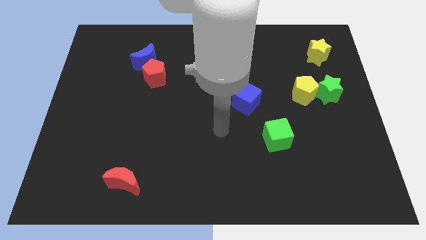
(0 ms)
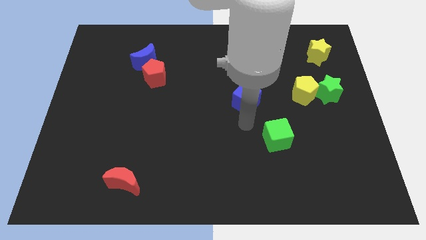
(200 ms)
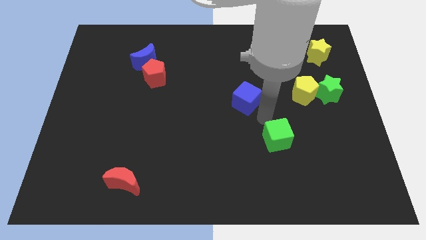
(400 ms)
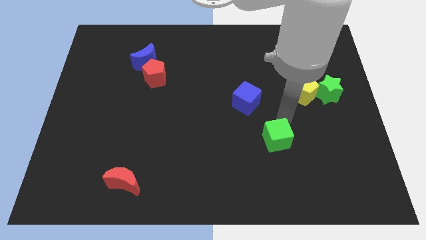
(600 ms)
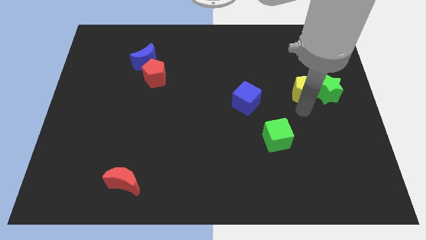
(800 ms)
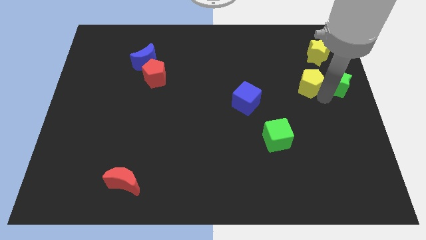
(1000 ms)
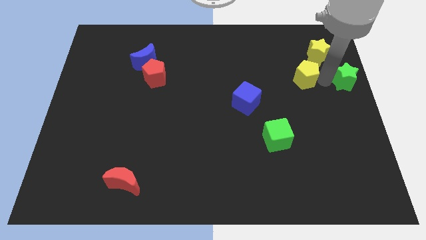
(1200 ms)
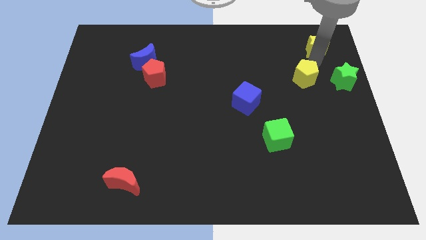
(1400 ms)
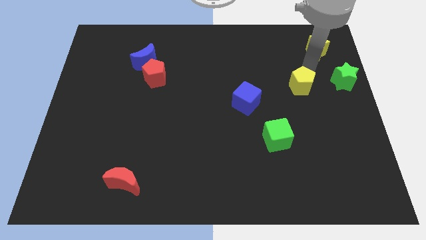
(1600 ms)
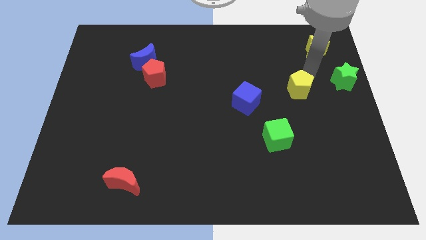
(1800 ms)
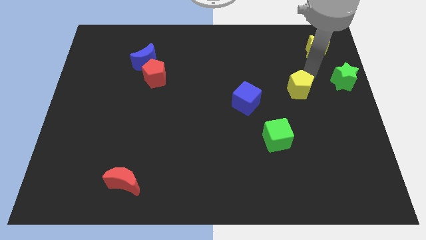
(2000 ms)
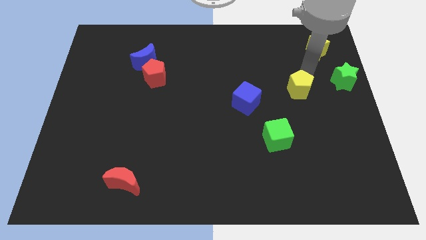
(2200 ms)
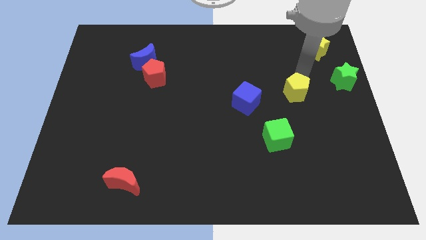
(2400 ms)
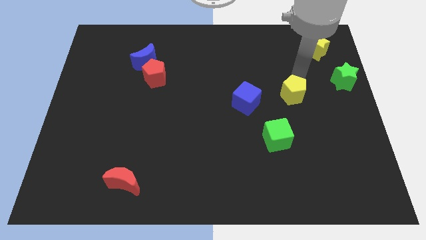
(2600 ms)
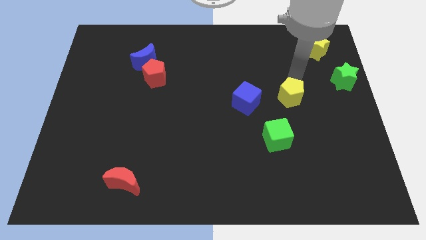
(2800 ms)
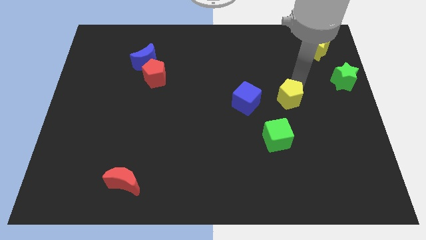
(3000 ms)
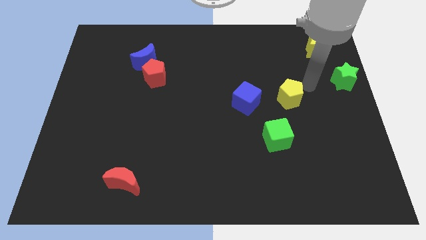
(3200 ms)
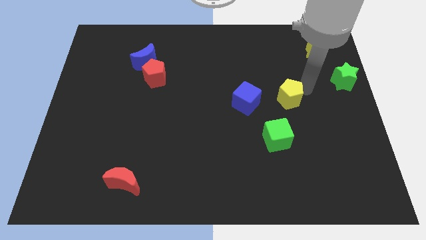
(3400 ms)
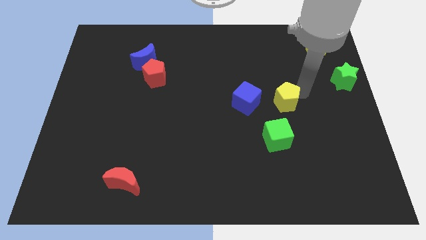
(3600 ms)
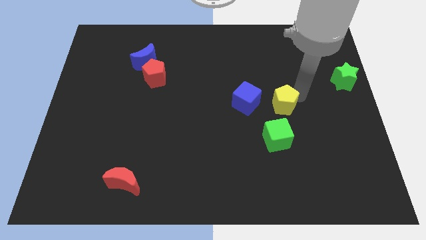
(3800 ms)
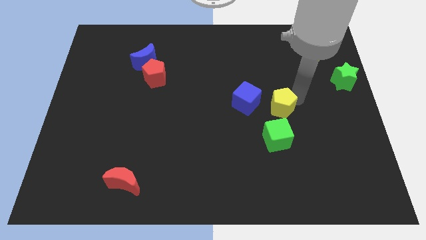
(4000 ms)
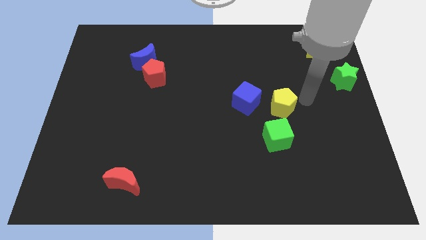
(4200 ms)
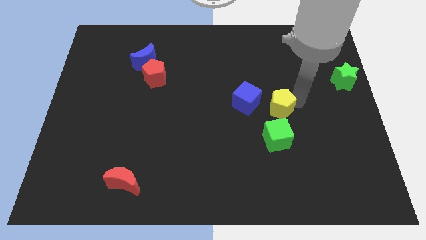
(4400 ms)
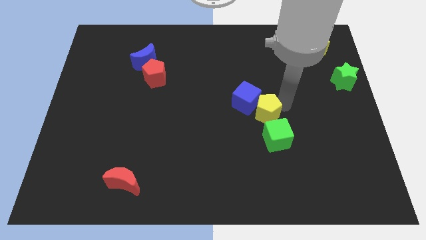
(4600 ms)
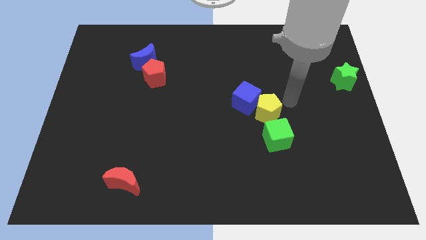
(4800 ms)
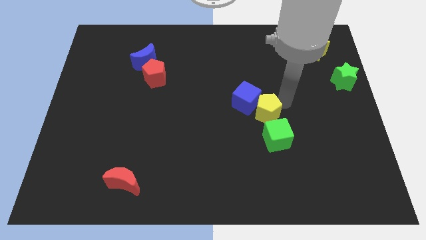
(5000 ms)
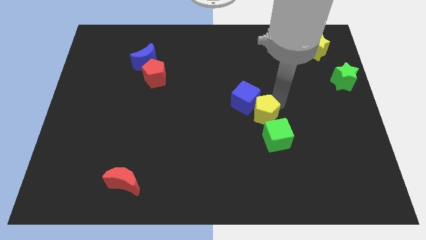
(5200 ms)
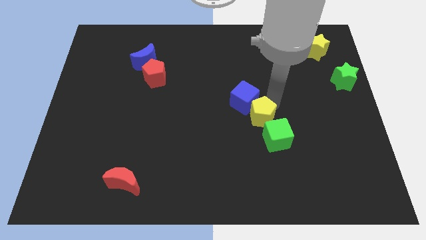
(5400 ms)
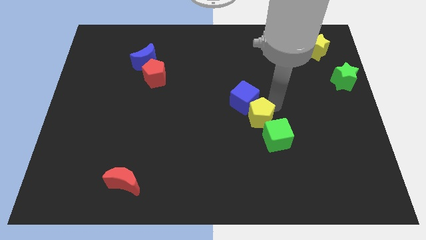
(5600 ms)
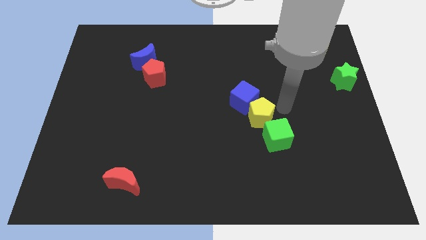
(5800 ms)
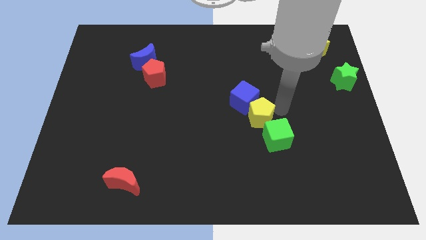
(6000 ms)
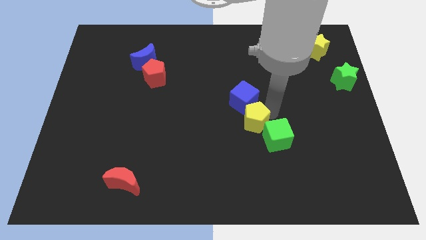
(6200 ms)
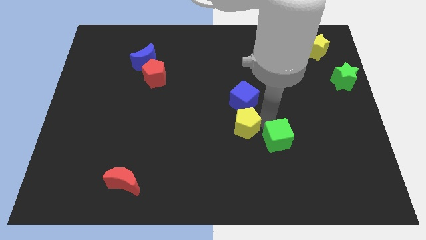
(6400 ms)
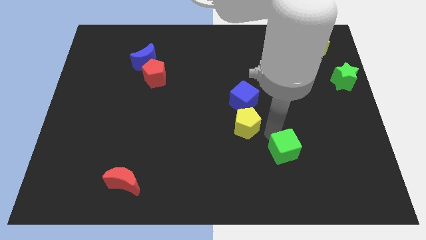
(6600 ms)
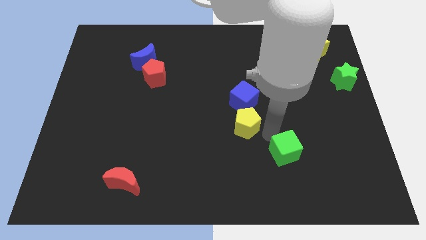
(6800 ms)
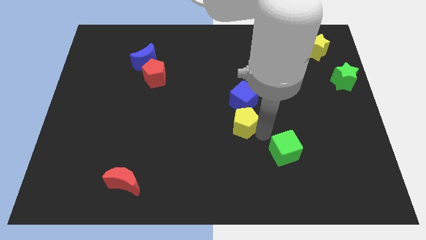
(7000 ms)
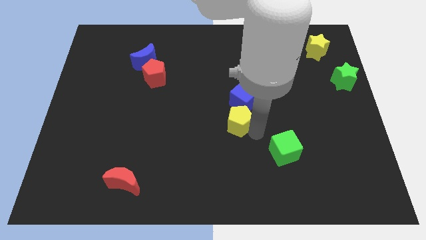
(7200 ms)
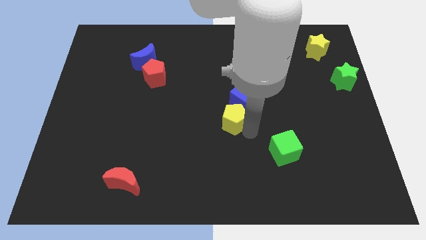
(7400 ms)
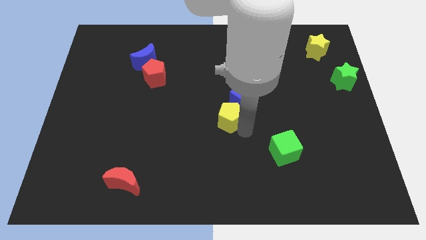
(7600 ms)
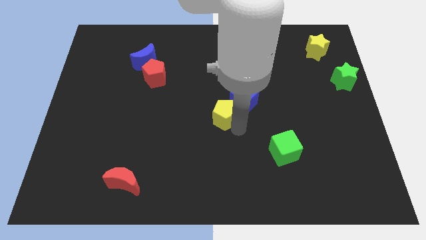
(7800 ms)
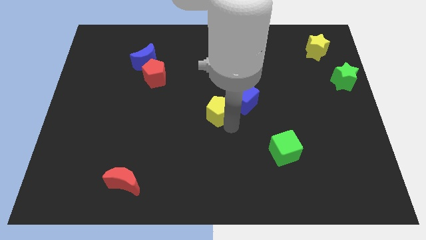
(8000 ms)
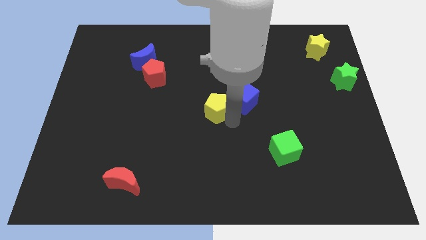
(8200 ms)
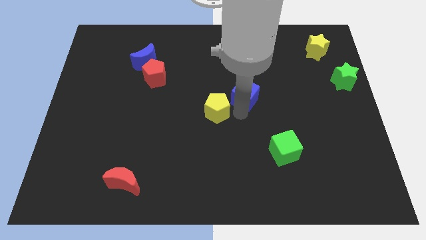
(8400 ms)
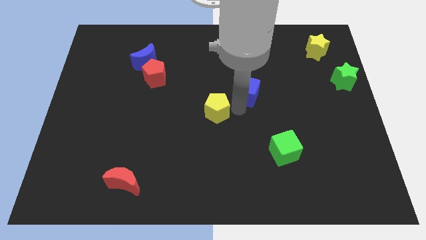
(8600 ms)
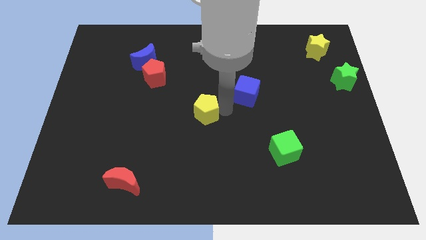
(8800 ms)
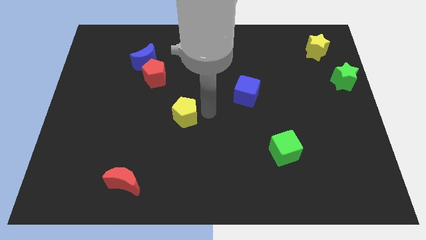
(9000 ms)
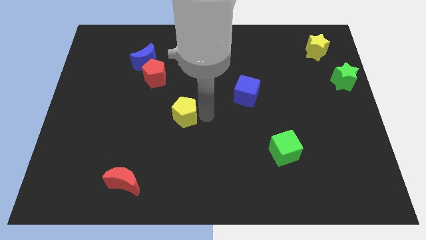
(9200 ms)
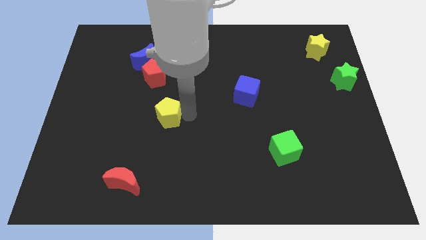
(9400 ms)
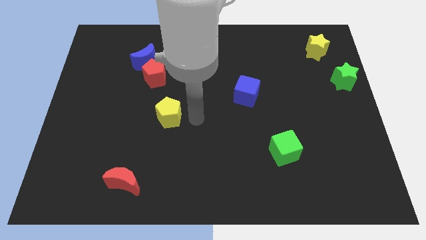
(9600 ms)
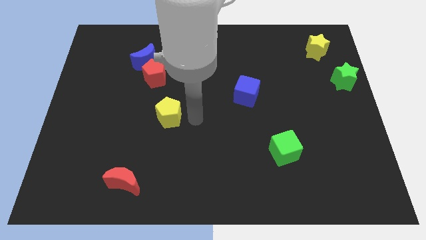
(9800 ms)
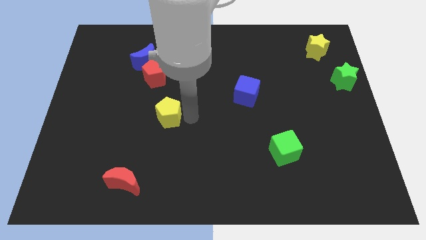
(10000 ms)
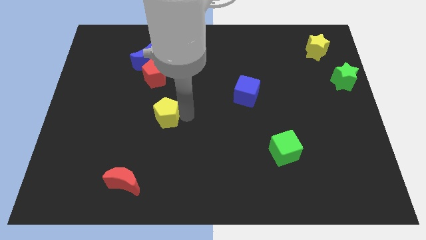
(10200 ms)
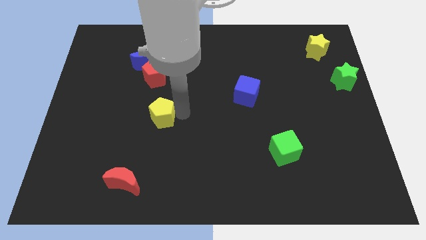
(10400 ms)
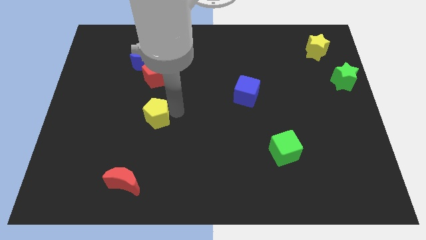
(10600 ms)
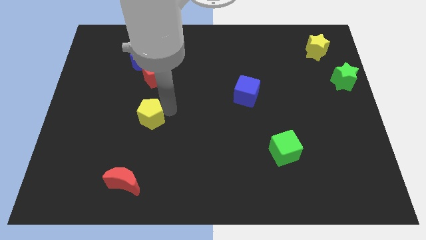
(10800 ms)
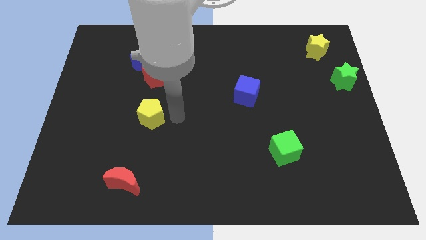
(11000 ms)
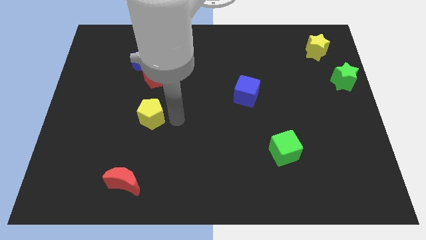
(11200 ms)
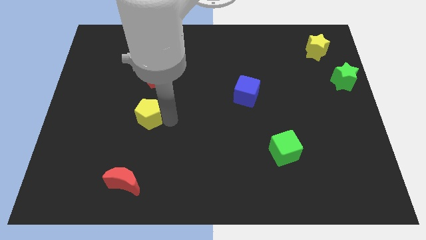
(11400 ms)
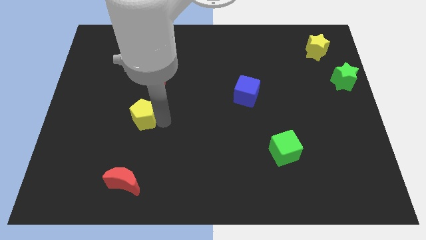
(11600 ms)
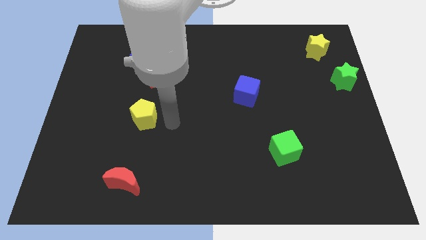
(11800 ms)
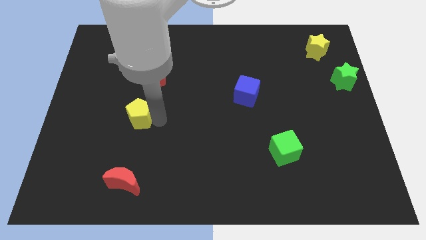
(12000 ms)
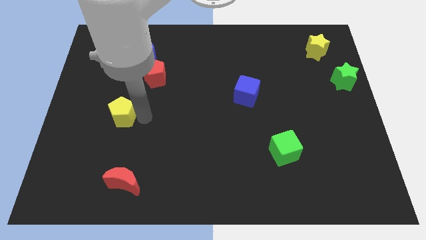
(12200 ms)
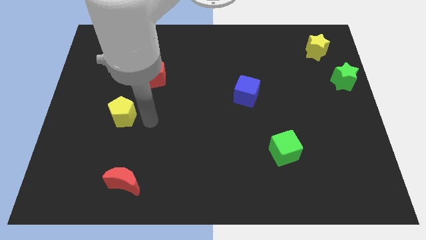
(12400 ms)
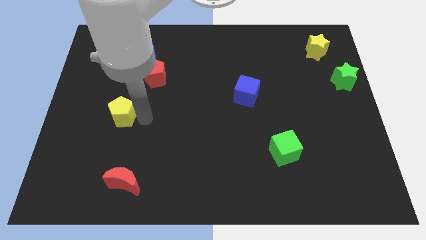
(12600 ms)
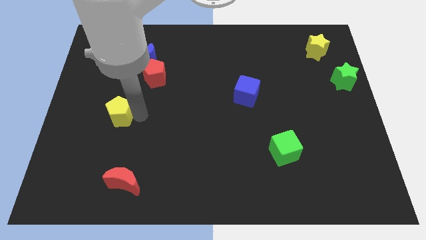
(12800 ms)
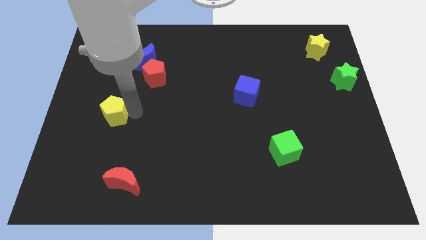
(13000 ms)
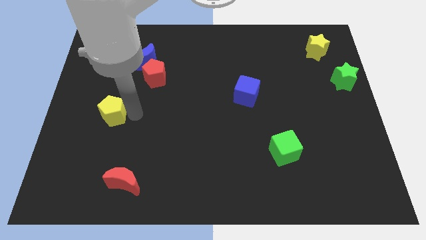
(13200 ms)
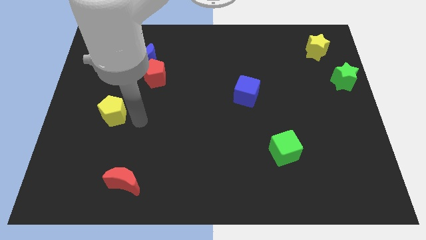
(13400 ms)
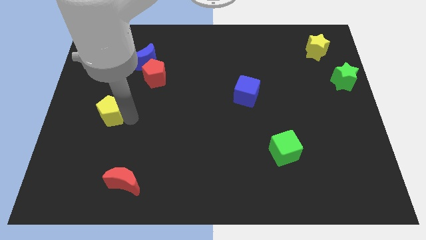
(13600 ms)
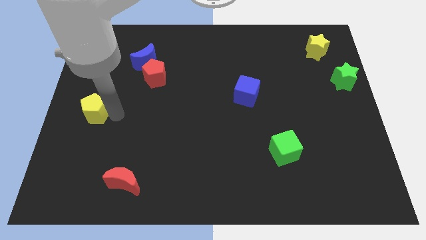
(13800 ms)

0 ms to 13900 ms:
put the yellow pentagon to the left side
